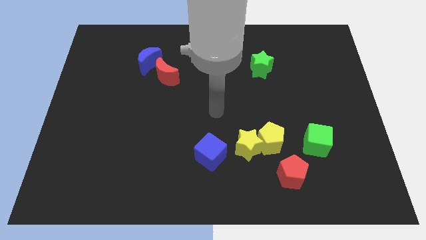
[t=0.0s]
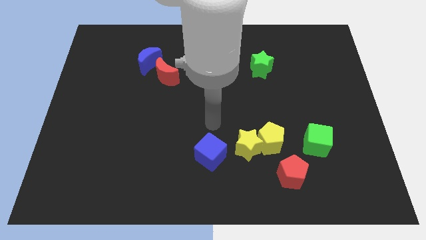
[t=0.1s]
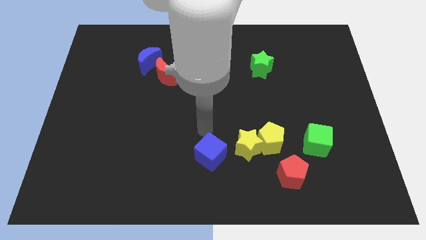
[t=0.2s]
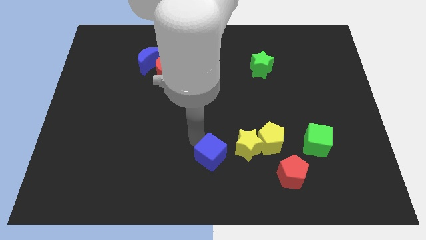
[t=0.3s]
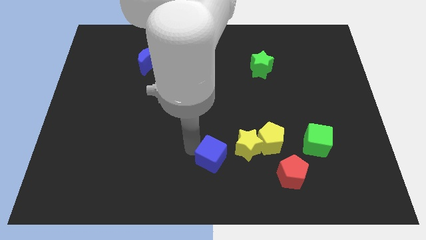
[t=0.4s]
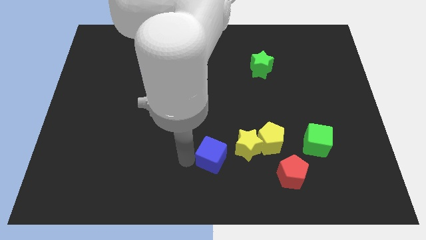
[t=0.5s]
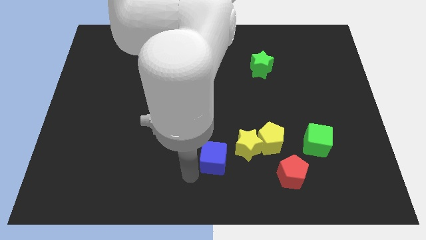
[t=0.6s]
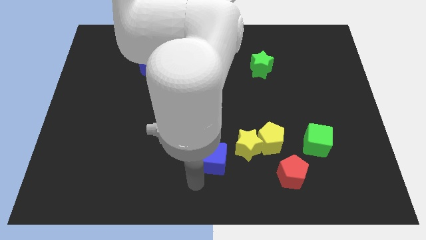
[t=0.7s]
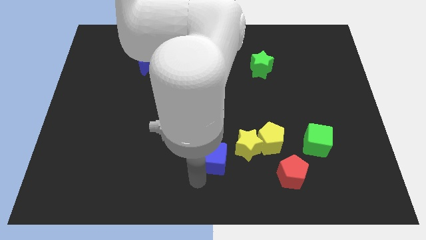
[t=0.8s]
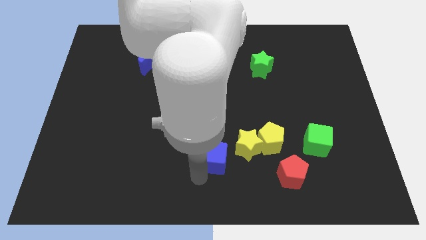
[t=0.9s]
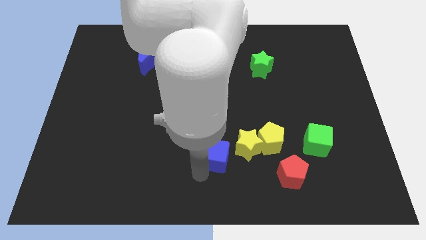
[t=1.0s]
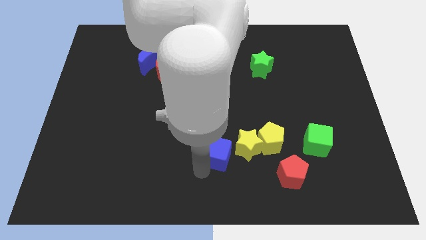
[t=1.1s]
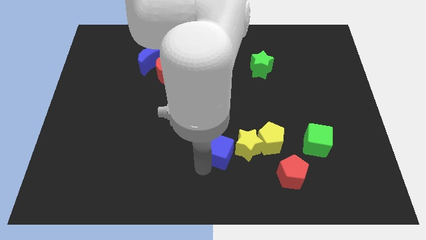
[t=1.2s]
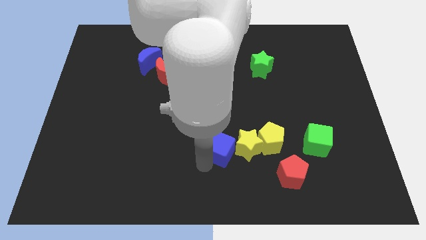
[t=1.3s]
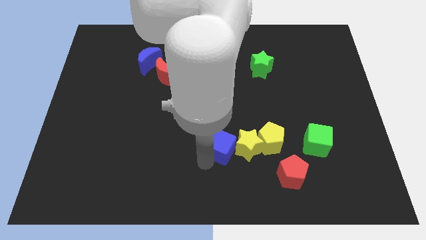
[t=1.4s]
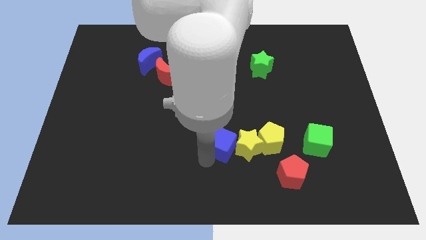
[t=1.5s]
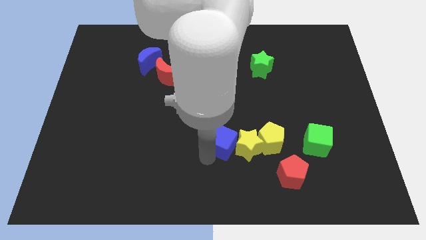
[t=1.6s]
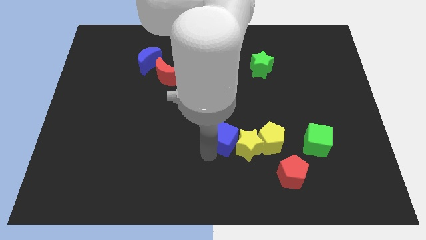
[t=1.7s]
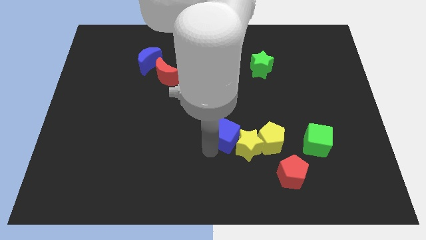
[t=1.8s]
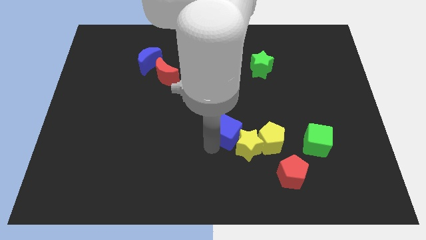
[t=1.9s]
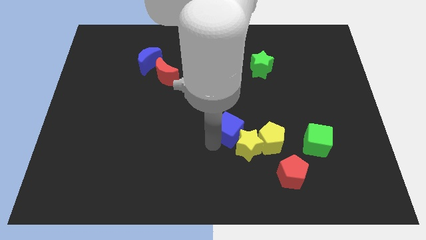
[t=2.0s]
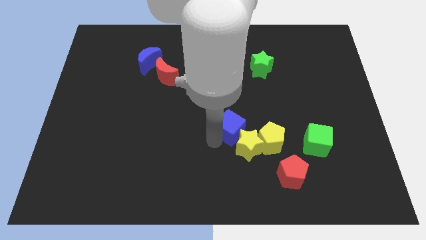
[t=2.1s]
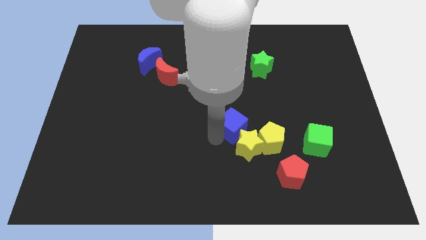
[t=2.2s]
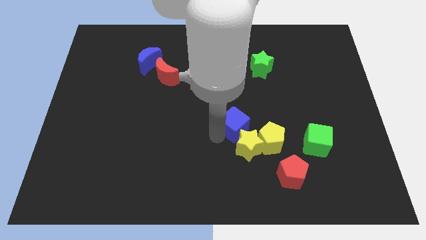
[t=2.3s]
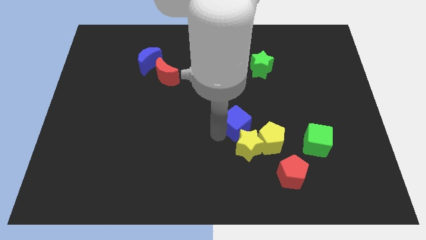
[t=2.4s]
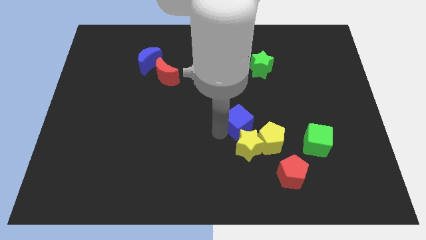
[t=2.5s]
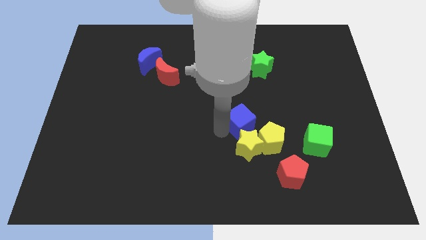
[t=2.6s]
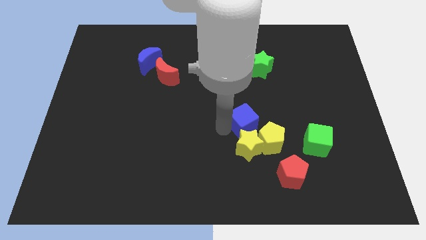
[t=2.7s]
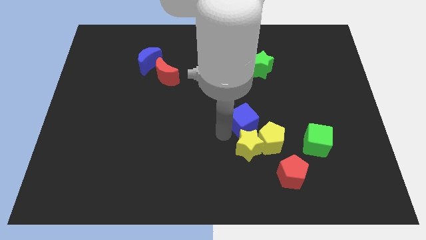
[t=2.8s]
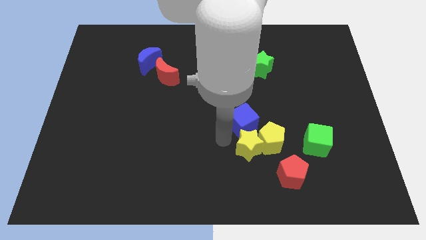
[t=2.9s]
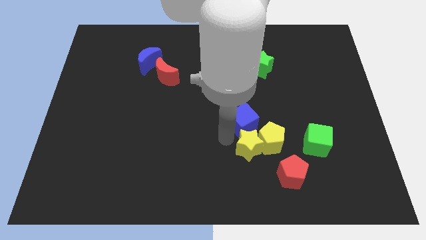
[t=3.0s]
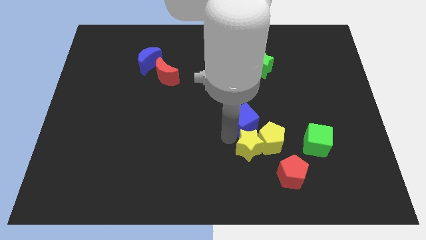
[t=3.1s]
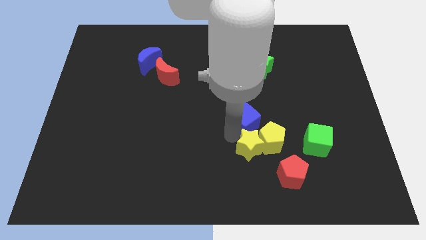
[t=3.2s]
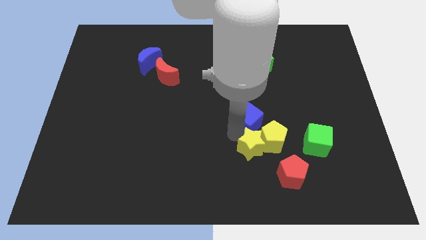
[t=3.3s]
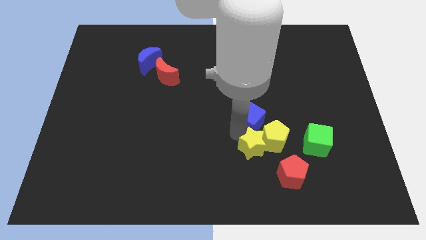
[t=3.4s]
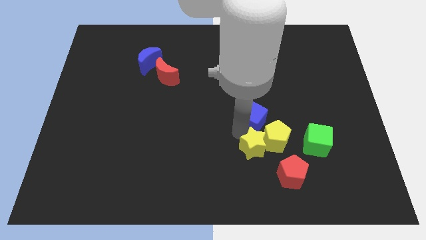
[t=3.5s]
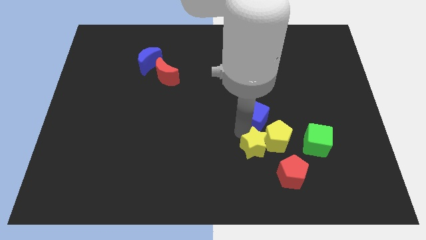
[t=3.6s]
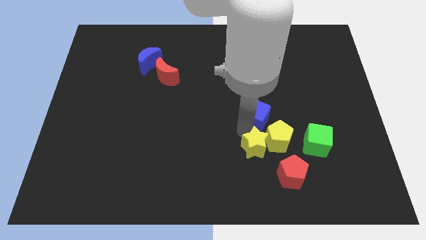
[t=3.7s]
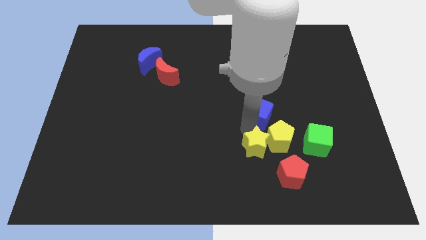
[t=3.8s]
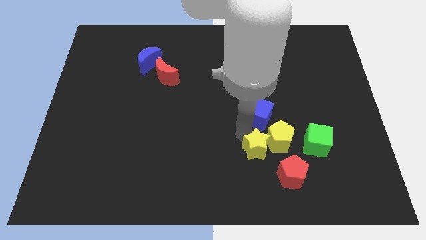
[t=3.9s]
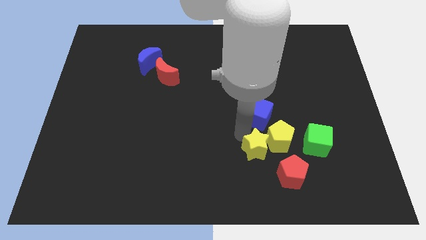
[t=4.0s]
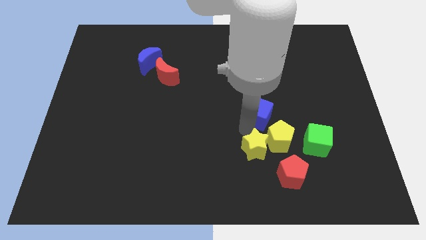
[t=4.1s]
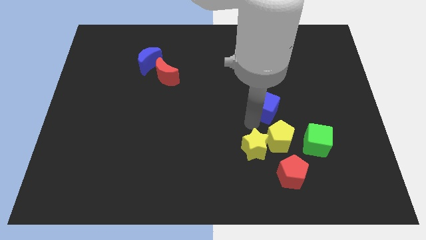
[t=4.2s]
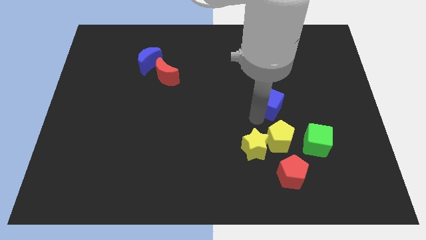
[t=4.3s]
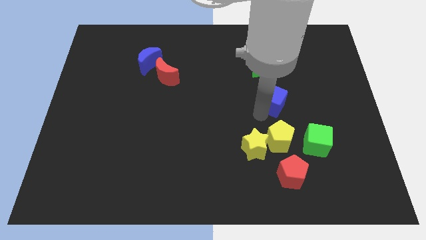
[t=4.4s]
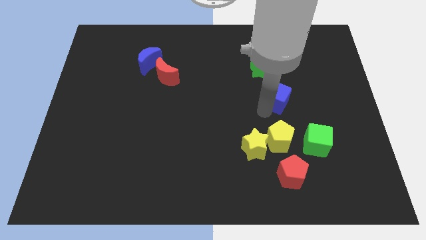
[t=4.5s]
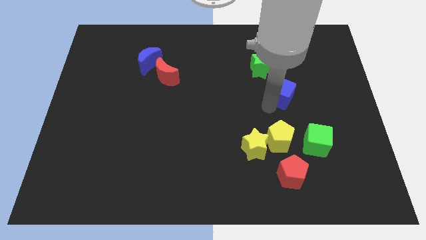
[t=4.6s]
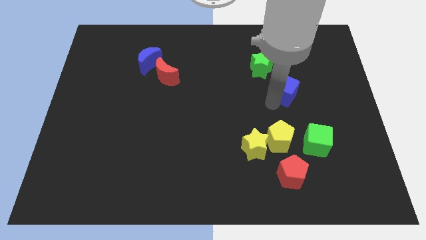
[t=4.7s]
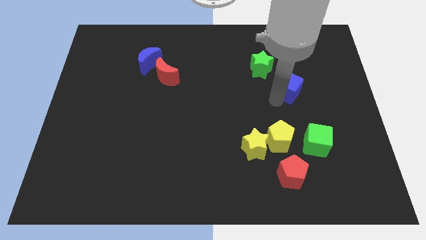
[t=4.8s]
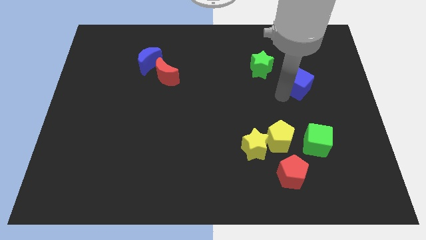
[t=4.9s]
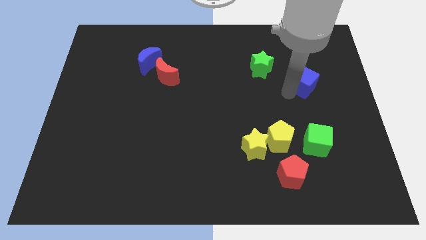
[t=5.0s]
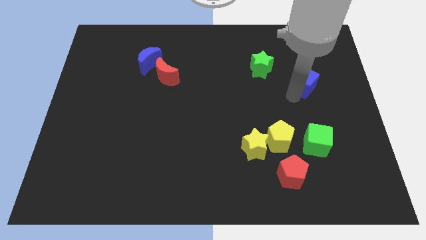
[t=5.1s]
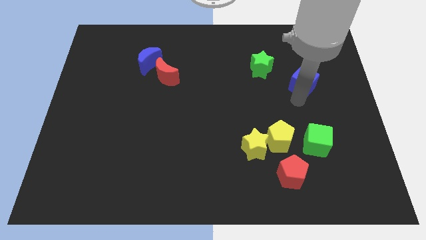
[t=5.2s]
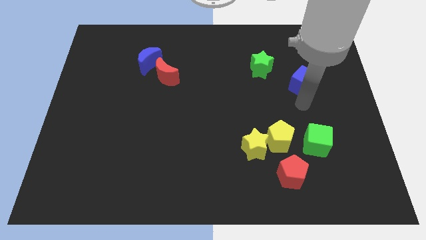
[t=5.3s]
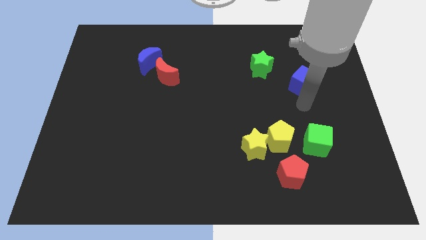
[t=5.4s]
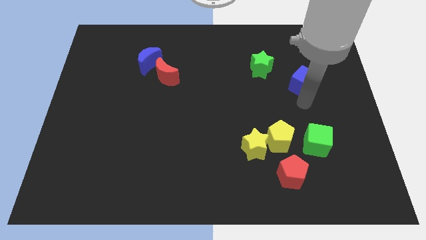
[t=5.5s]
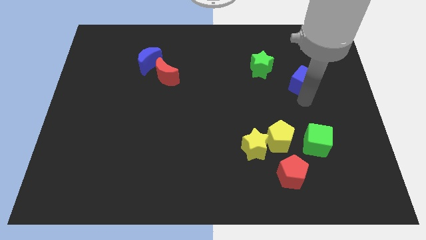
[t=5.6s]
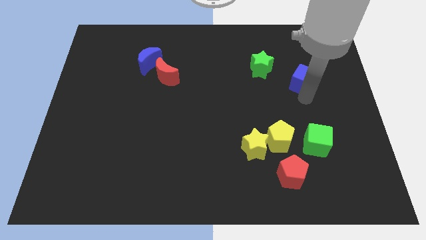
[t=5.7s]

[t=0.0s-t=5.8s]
put the blue cube to the right of the green star

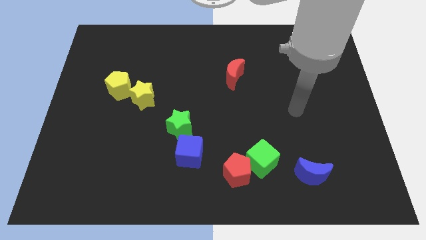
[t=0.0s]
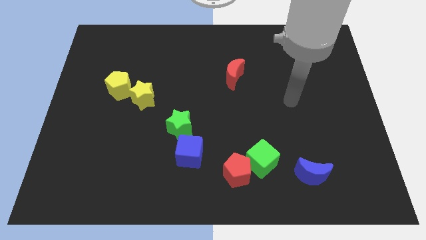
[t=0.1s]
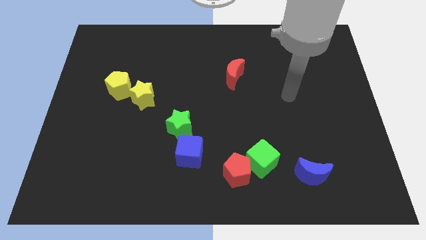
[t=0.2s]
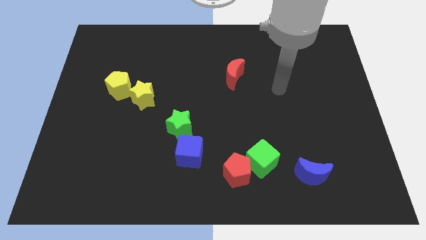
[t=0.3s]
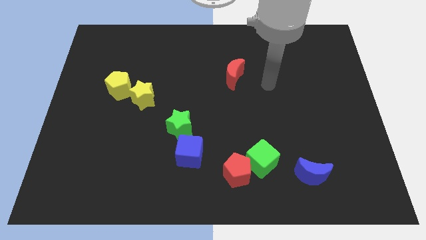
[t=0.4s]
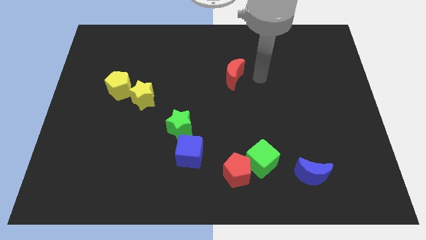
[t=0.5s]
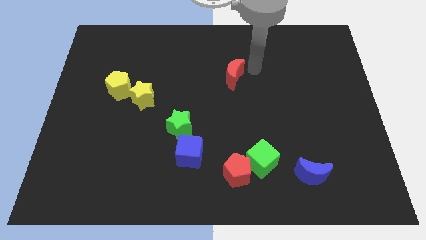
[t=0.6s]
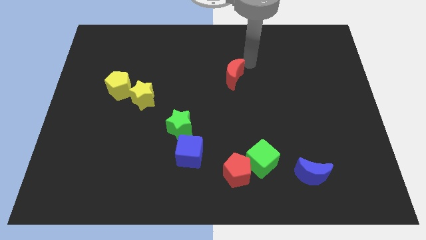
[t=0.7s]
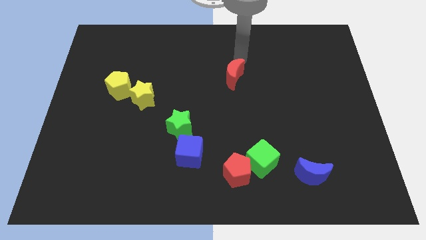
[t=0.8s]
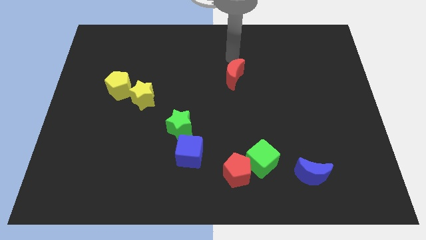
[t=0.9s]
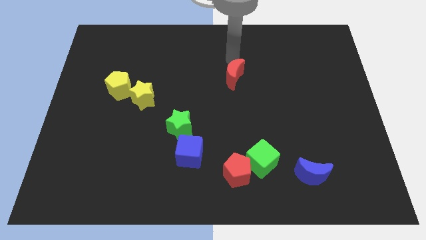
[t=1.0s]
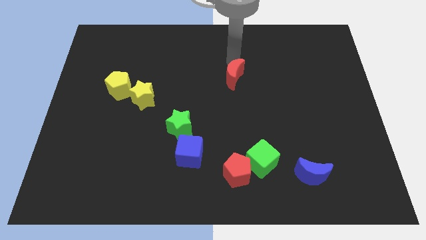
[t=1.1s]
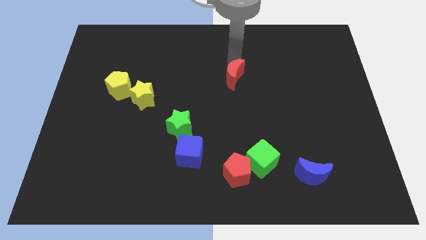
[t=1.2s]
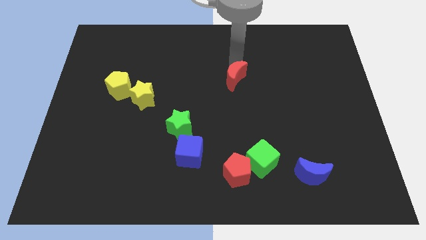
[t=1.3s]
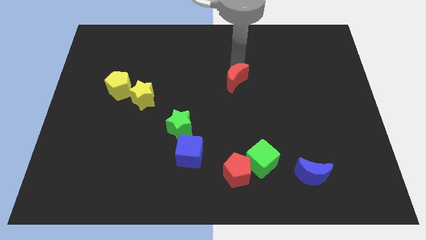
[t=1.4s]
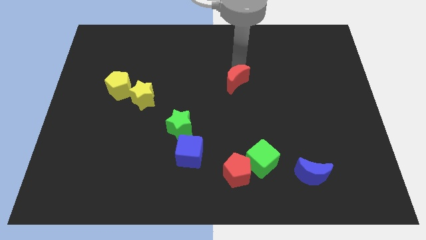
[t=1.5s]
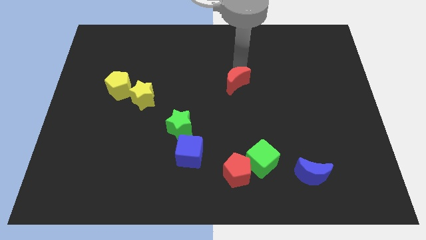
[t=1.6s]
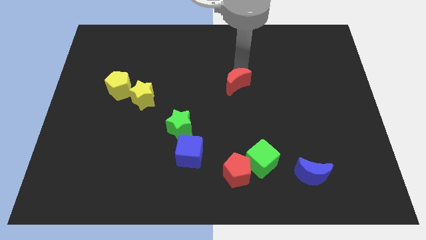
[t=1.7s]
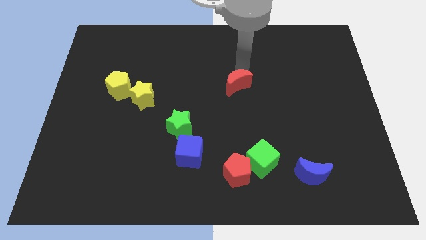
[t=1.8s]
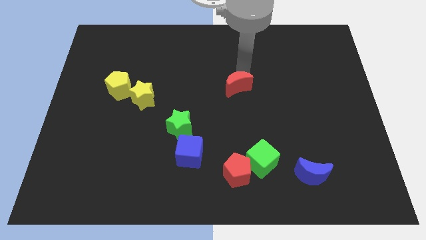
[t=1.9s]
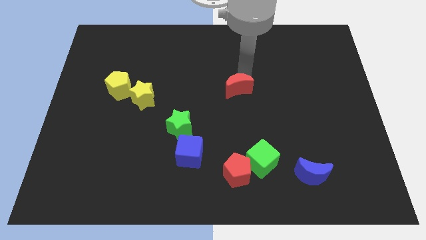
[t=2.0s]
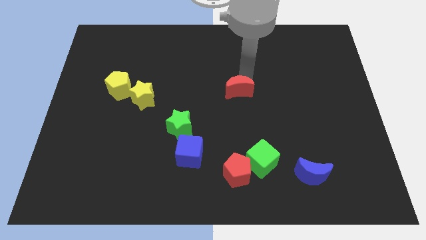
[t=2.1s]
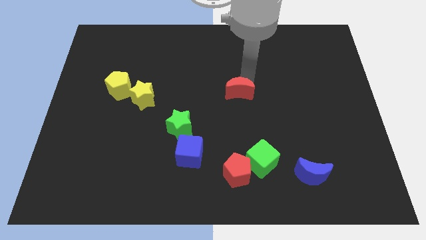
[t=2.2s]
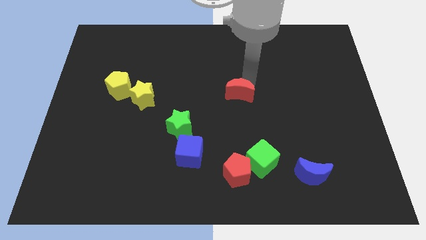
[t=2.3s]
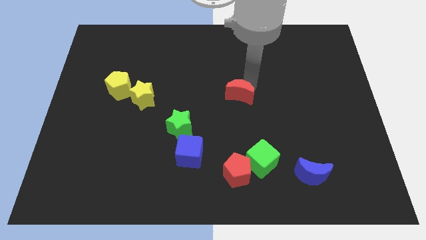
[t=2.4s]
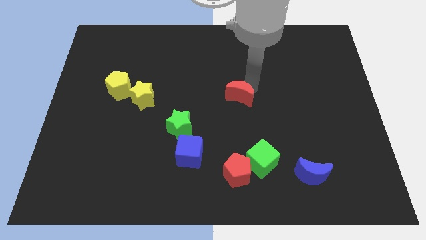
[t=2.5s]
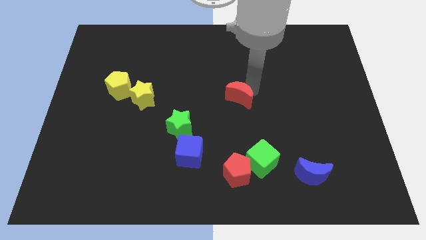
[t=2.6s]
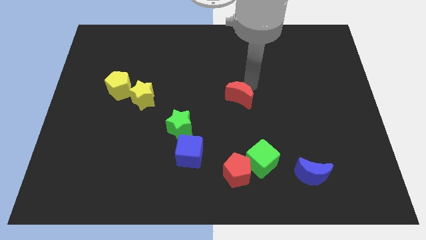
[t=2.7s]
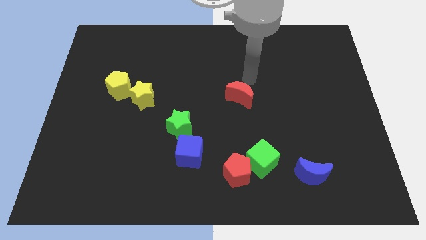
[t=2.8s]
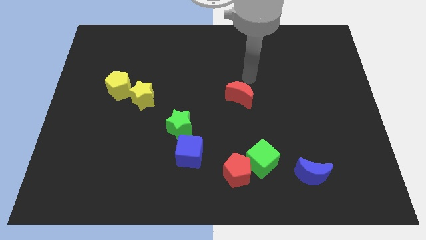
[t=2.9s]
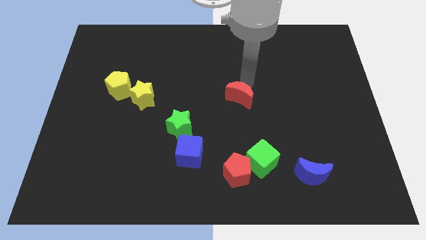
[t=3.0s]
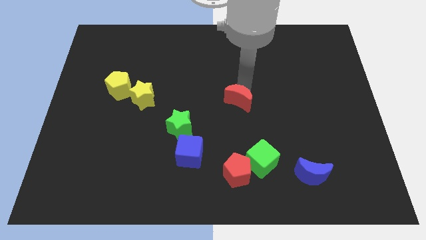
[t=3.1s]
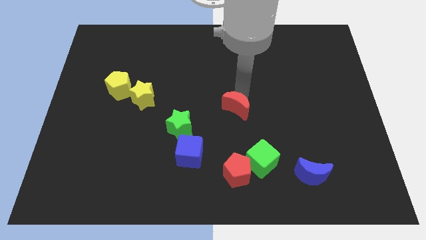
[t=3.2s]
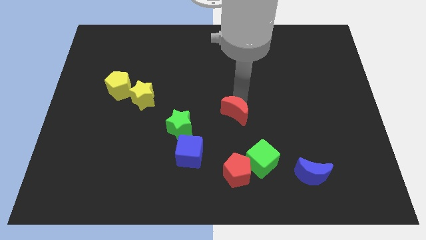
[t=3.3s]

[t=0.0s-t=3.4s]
slide the red moon just right of the green star
